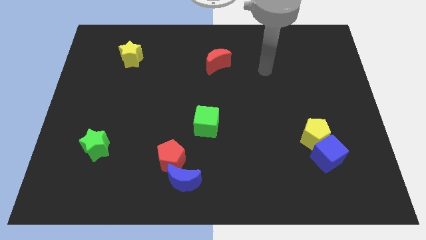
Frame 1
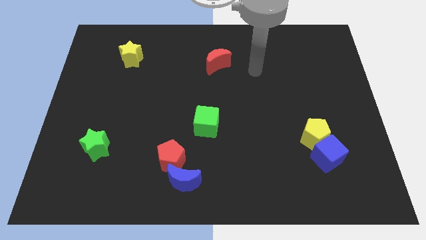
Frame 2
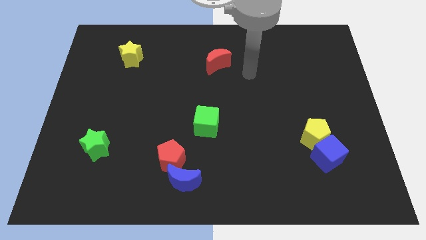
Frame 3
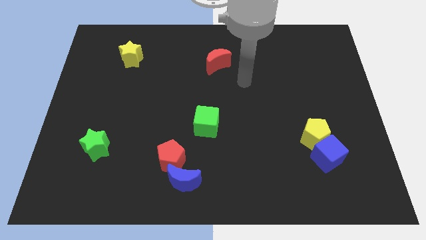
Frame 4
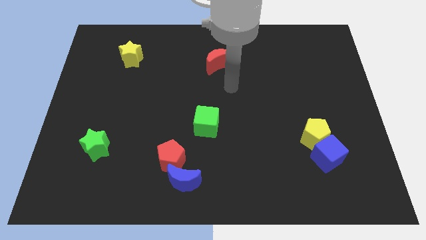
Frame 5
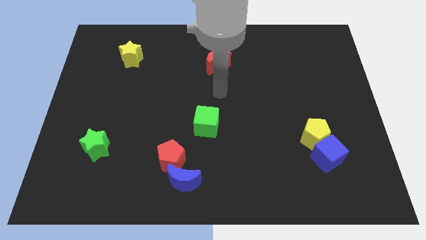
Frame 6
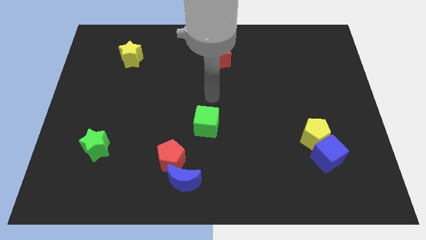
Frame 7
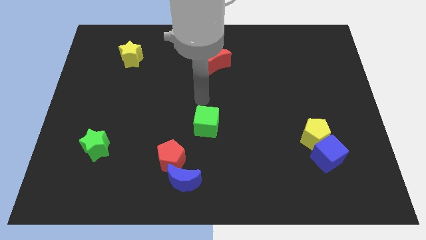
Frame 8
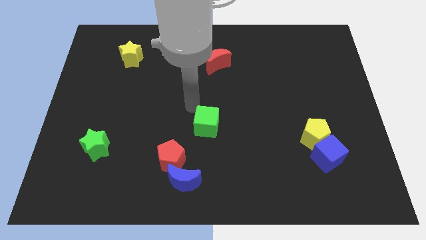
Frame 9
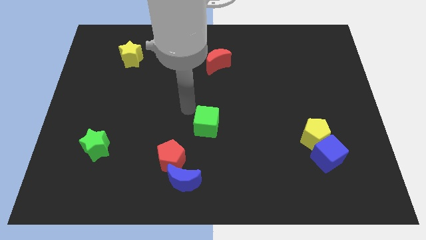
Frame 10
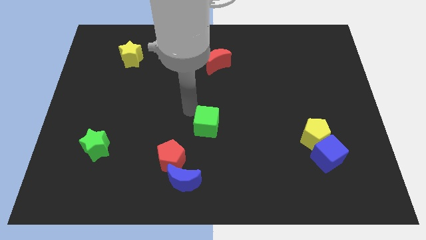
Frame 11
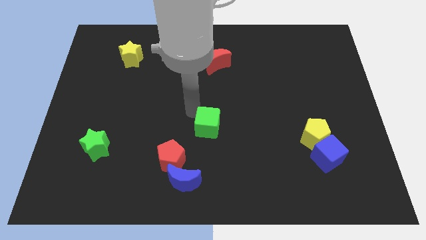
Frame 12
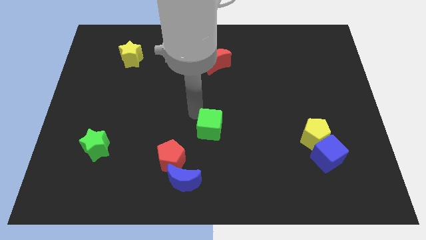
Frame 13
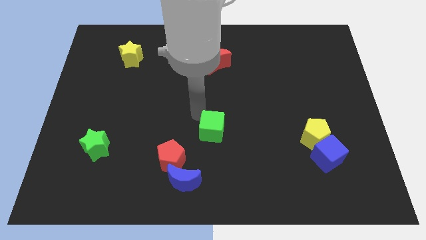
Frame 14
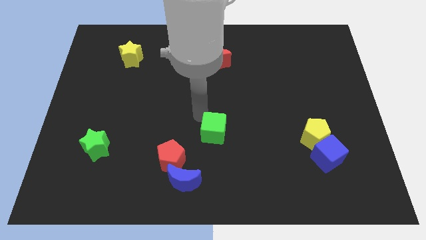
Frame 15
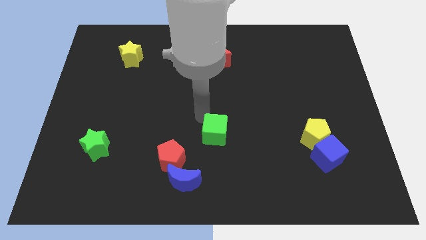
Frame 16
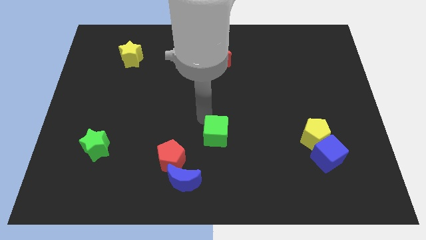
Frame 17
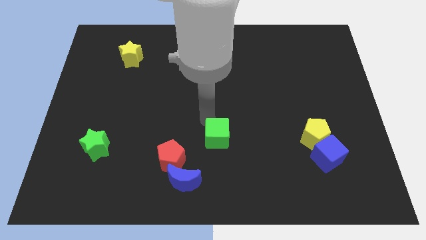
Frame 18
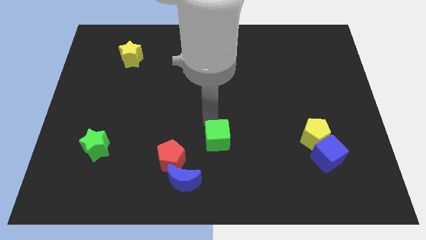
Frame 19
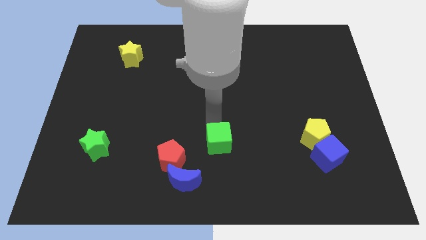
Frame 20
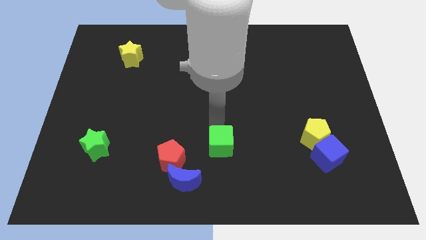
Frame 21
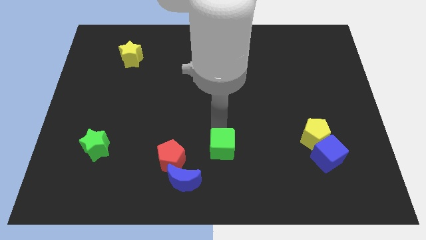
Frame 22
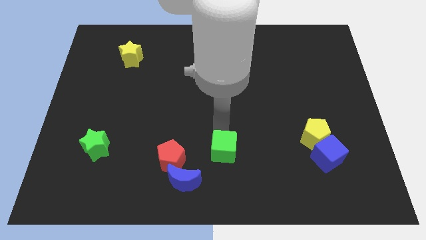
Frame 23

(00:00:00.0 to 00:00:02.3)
slightly move the green cube diagonally down and right

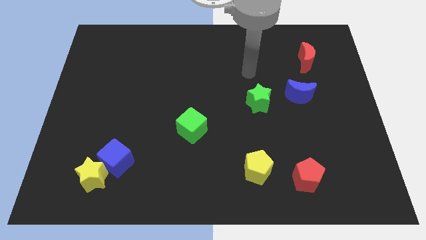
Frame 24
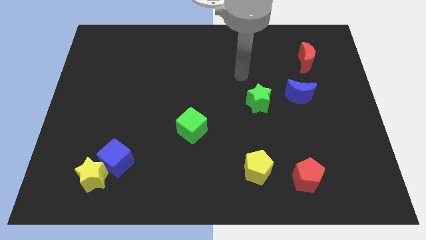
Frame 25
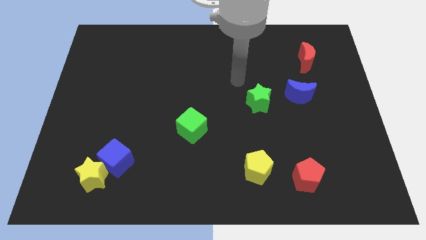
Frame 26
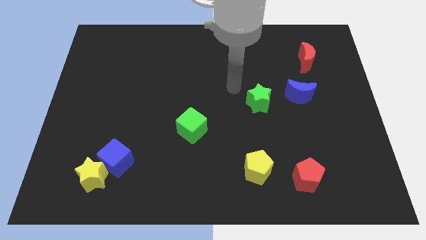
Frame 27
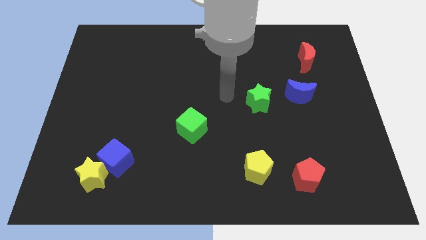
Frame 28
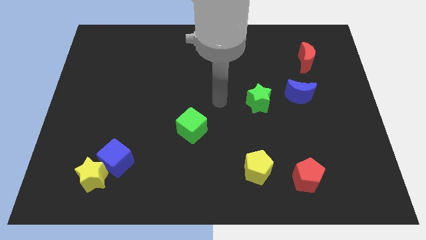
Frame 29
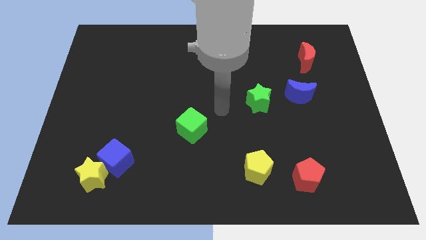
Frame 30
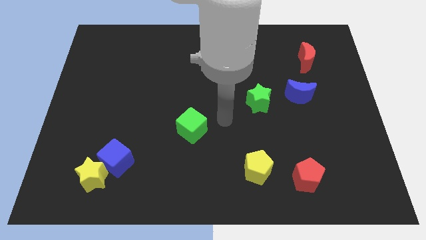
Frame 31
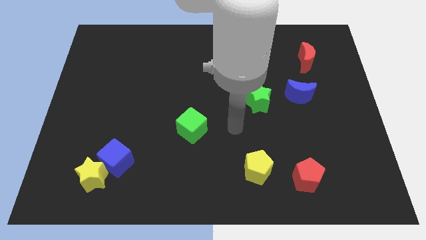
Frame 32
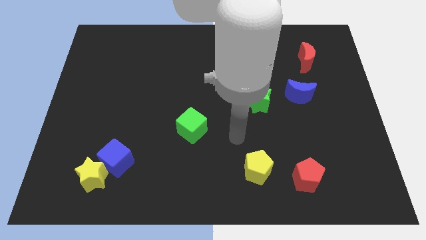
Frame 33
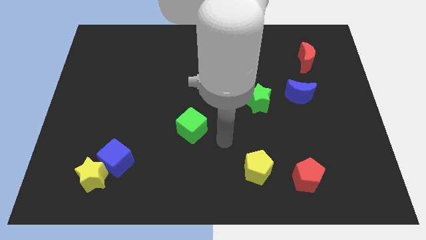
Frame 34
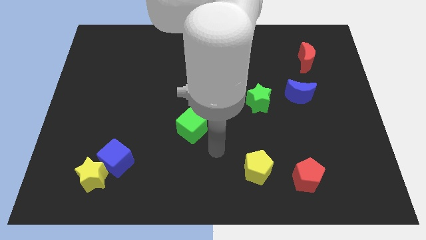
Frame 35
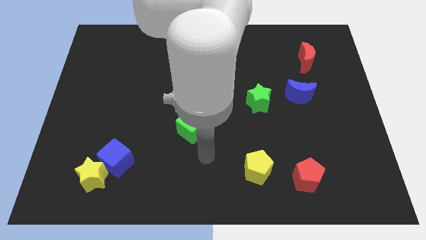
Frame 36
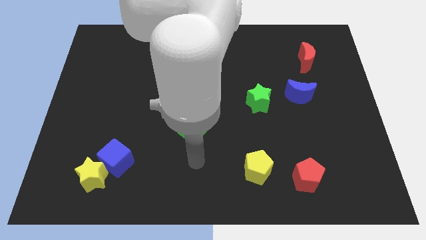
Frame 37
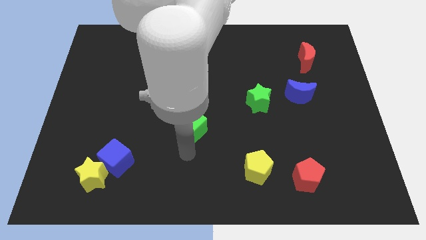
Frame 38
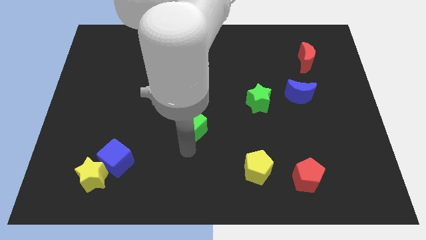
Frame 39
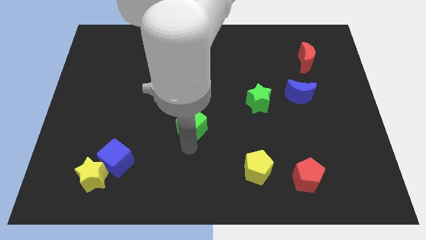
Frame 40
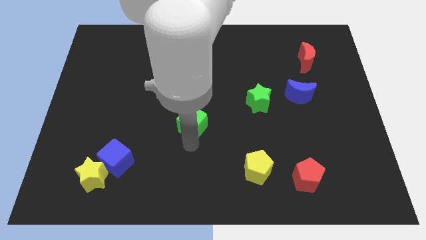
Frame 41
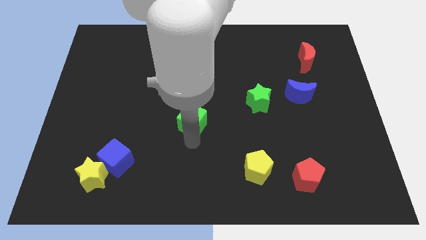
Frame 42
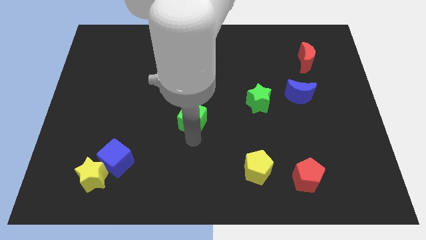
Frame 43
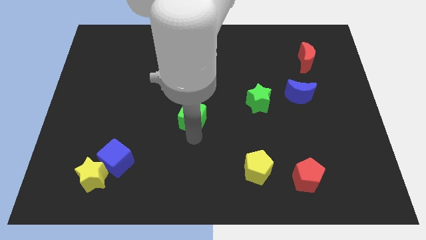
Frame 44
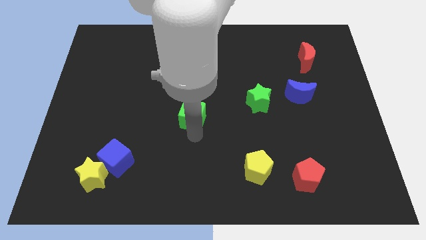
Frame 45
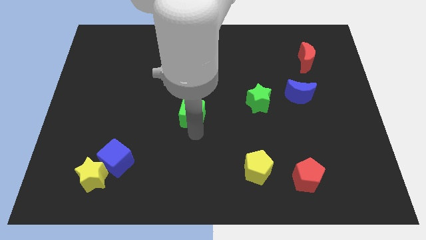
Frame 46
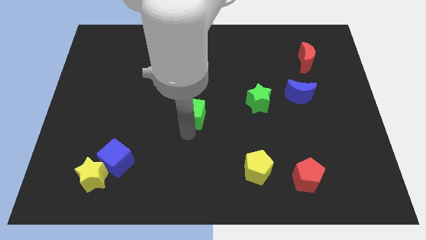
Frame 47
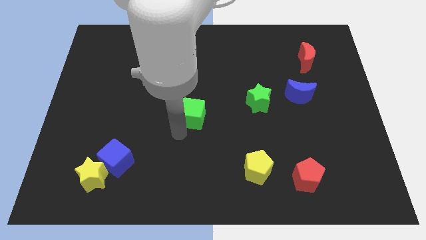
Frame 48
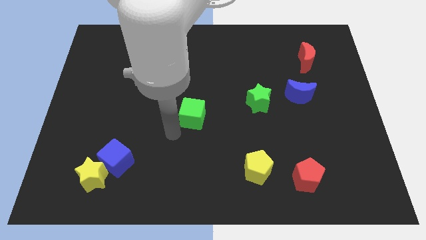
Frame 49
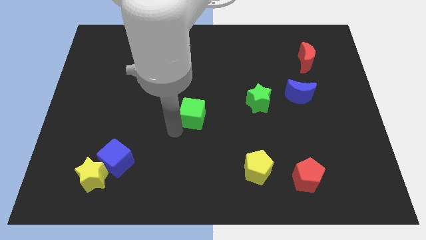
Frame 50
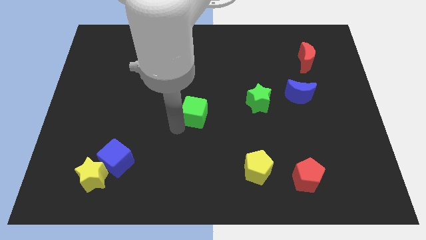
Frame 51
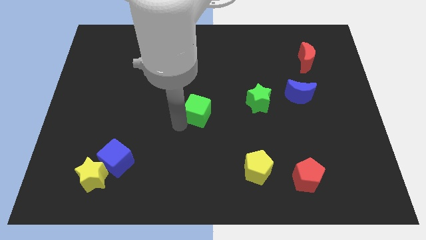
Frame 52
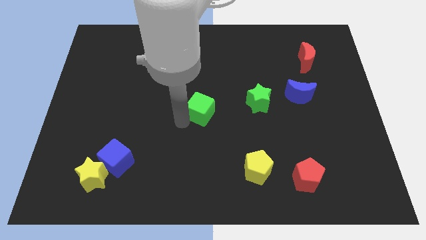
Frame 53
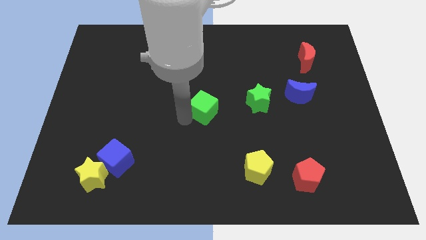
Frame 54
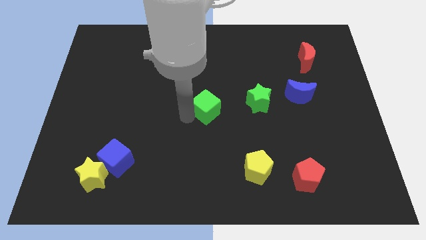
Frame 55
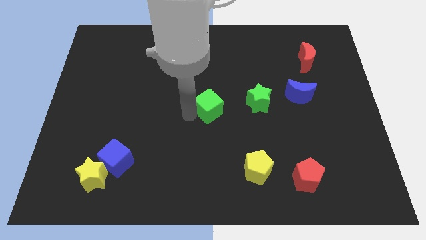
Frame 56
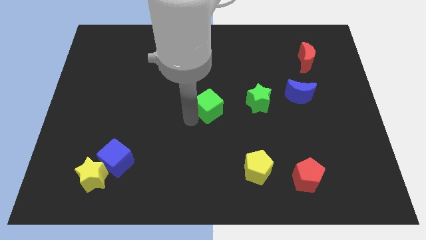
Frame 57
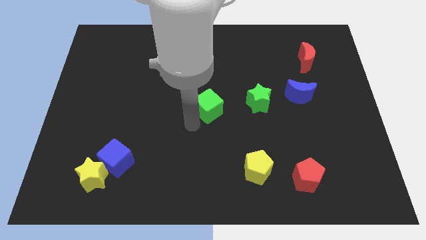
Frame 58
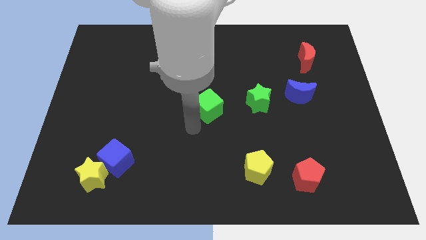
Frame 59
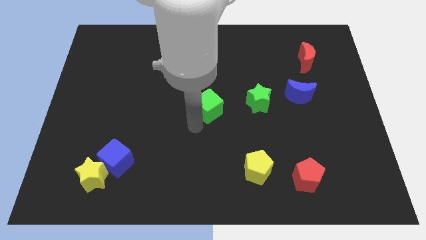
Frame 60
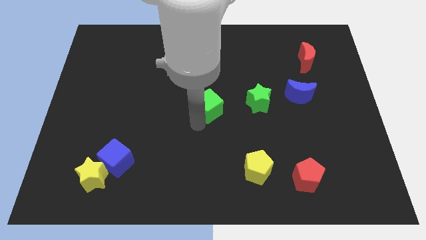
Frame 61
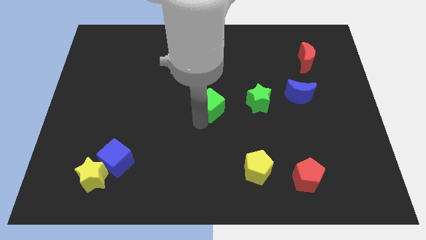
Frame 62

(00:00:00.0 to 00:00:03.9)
slide the green cube up and right diagonally a little bit

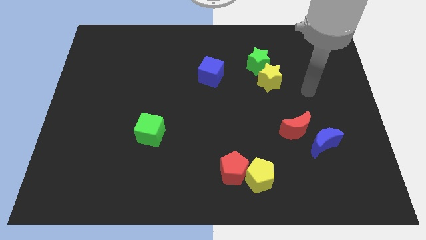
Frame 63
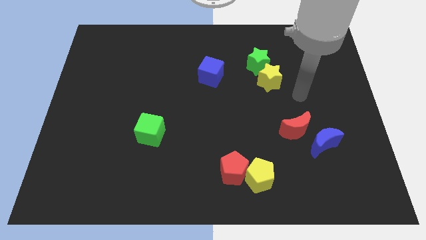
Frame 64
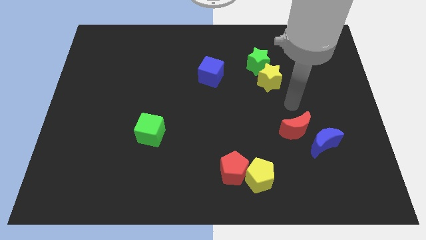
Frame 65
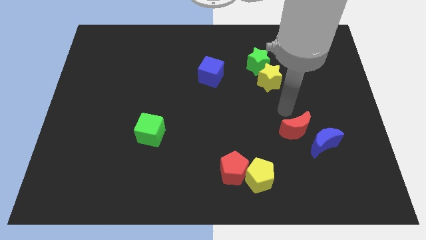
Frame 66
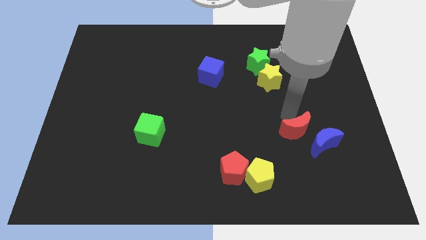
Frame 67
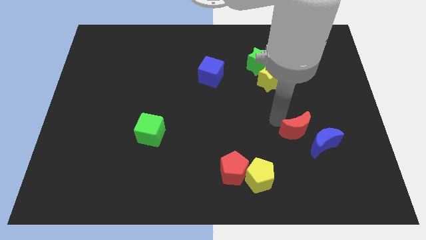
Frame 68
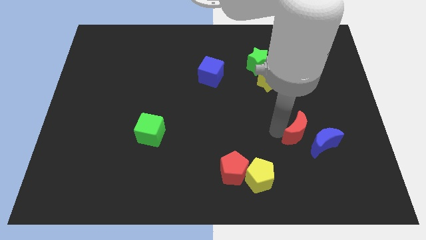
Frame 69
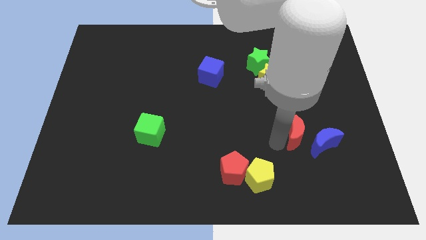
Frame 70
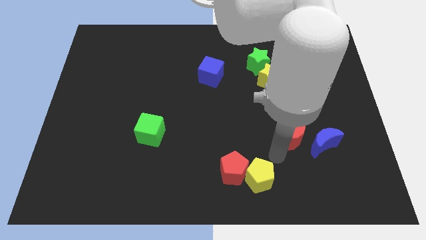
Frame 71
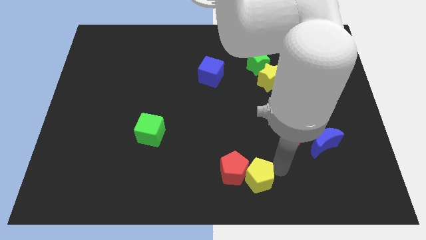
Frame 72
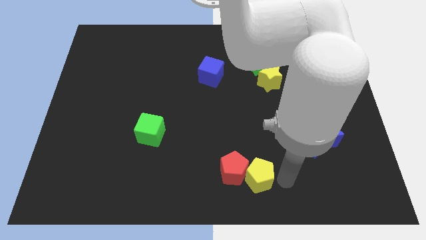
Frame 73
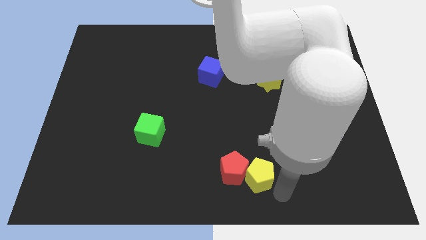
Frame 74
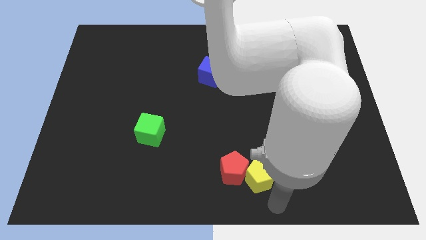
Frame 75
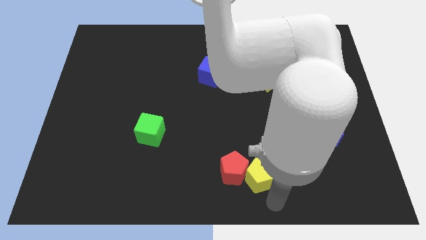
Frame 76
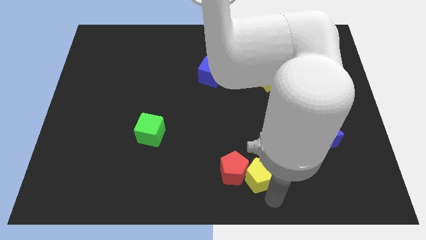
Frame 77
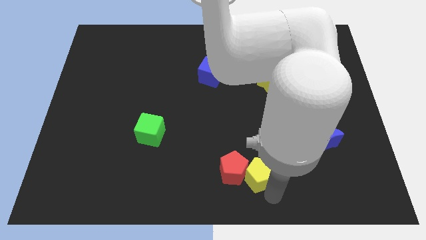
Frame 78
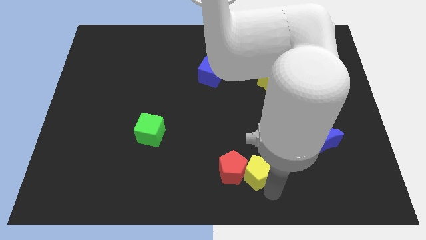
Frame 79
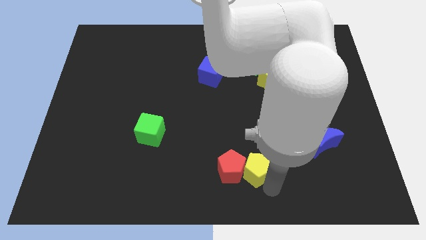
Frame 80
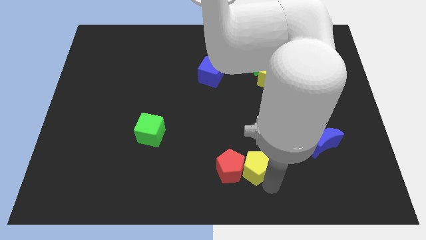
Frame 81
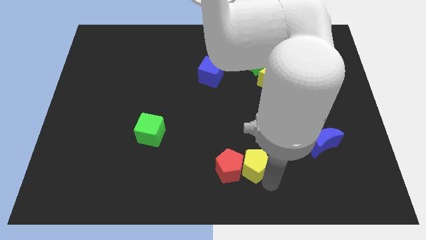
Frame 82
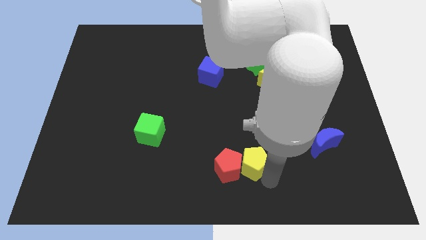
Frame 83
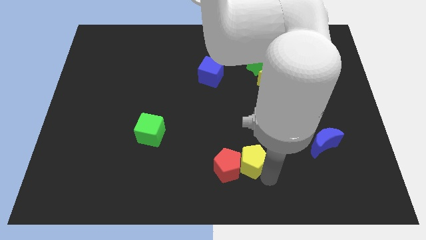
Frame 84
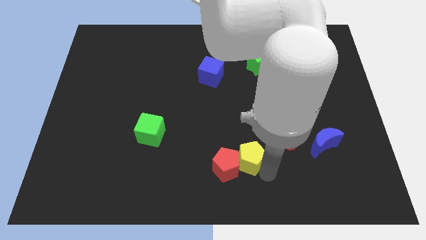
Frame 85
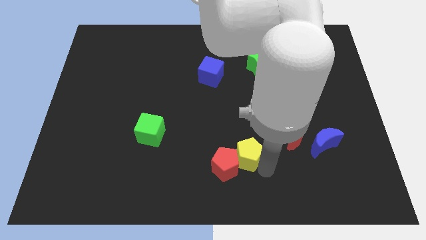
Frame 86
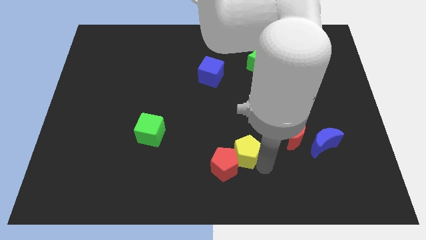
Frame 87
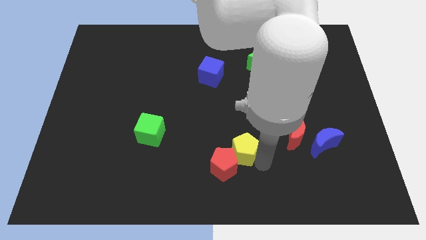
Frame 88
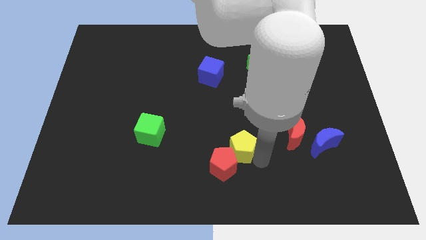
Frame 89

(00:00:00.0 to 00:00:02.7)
slide the yellow pentagon up and to the left diagonally somewhat
